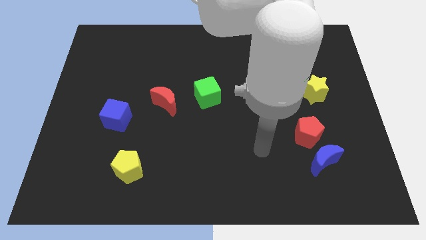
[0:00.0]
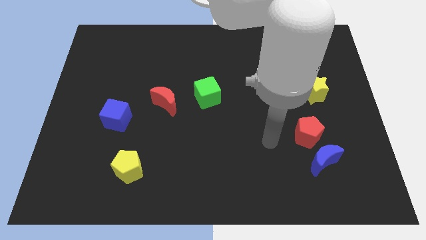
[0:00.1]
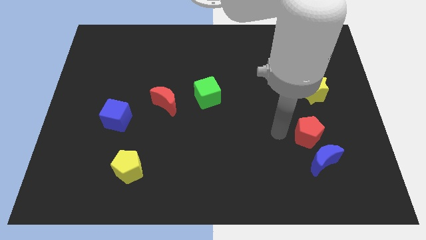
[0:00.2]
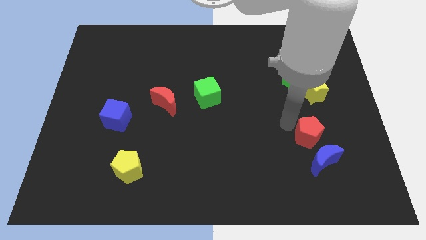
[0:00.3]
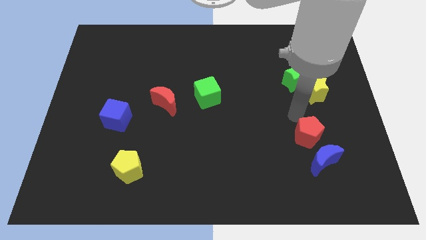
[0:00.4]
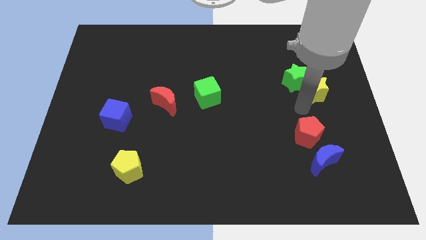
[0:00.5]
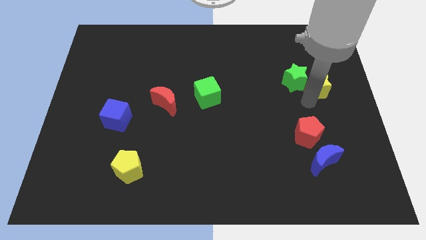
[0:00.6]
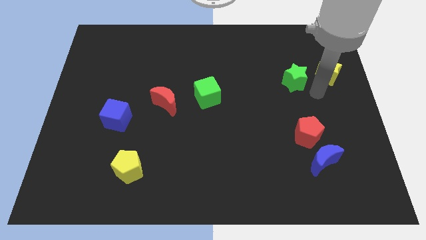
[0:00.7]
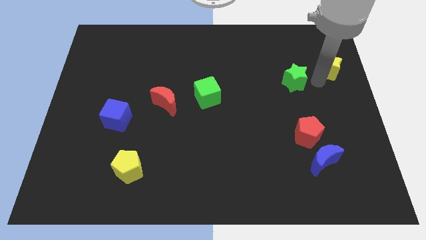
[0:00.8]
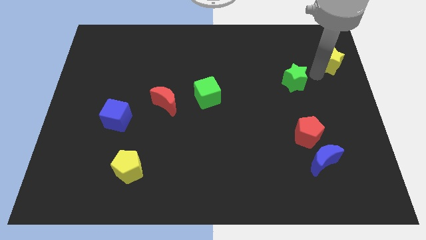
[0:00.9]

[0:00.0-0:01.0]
pull the green star apart from the yellow star

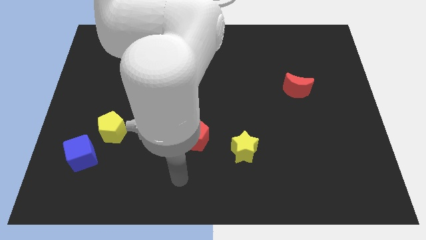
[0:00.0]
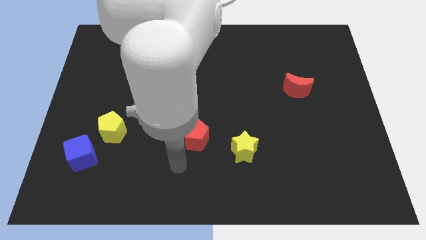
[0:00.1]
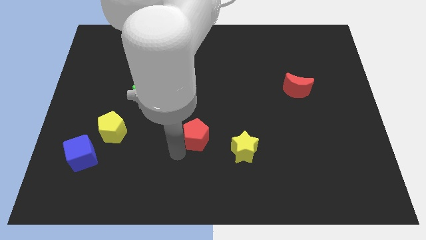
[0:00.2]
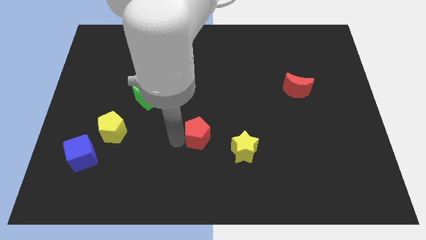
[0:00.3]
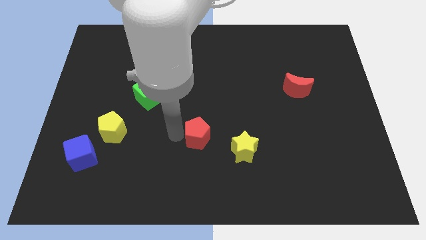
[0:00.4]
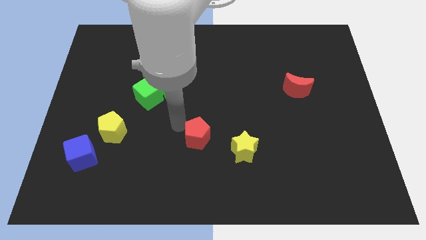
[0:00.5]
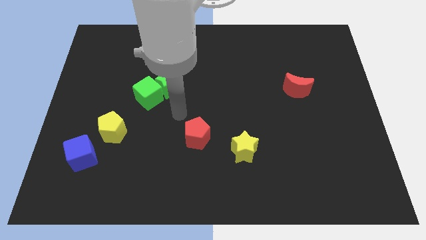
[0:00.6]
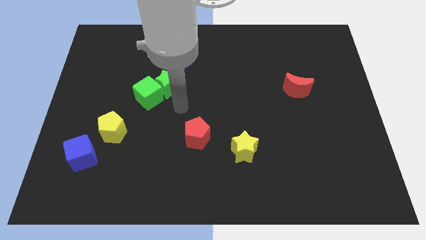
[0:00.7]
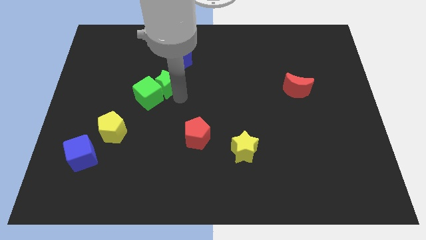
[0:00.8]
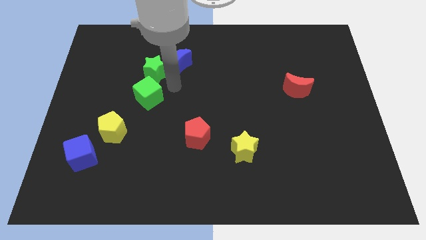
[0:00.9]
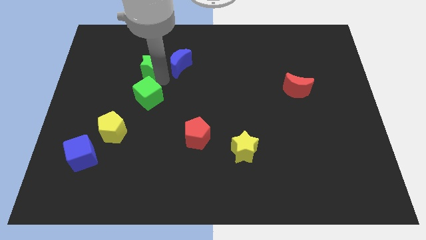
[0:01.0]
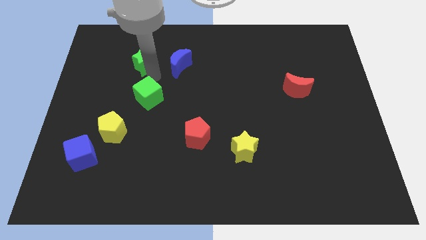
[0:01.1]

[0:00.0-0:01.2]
pull the green cube apart from the green star

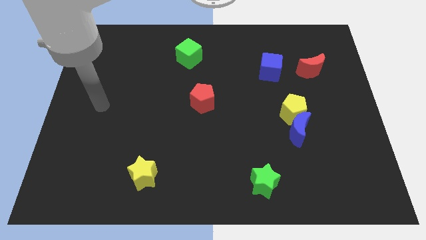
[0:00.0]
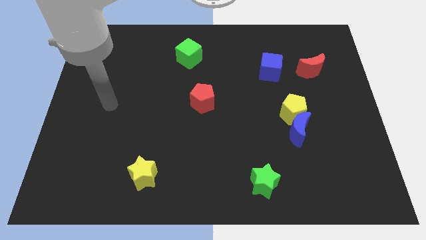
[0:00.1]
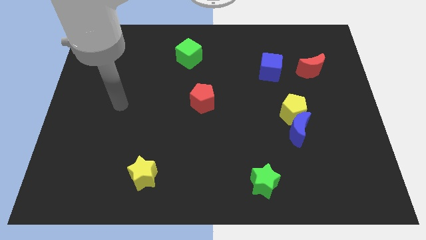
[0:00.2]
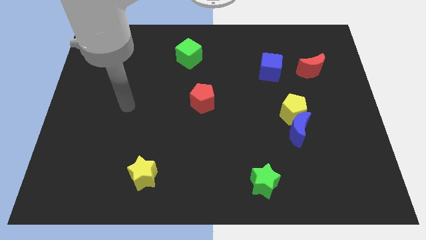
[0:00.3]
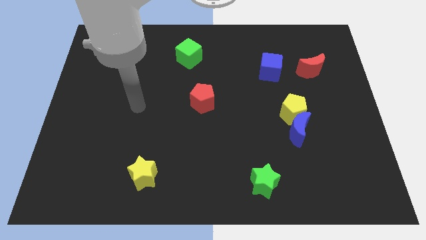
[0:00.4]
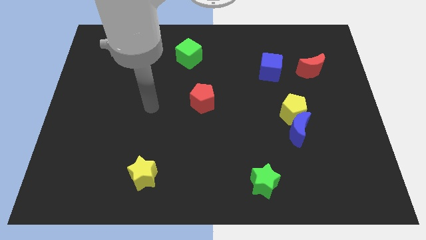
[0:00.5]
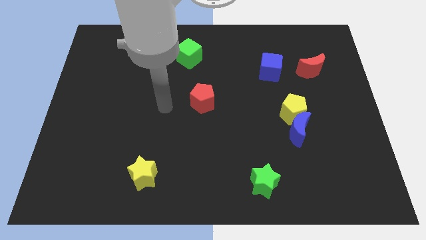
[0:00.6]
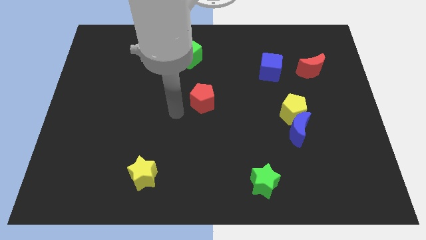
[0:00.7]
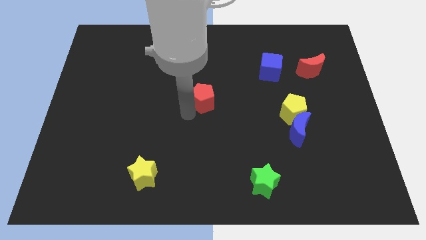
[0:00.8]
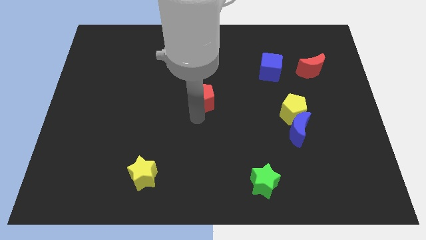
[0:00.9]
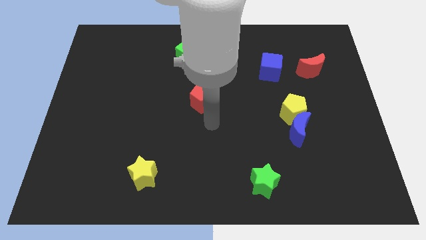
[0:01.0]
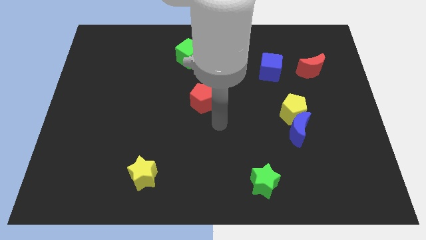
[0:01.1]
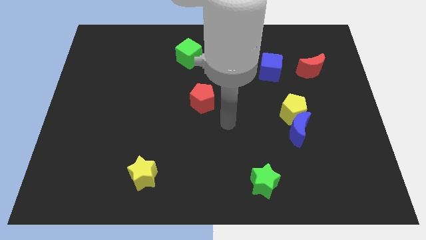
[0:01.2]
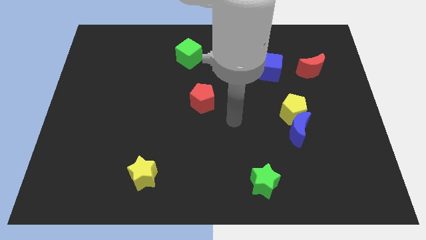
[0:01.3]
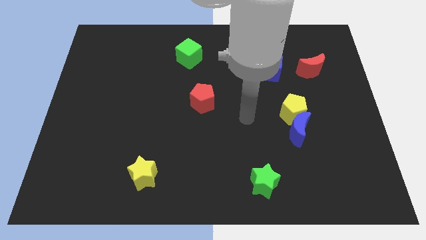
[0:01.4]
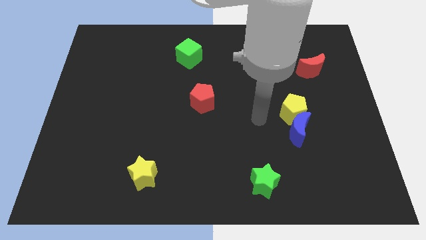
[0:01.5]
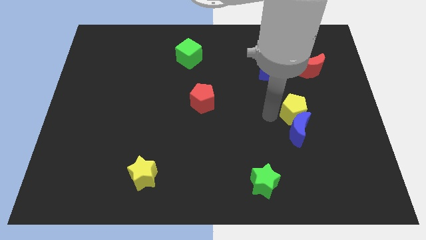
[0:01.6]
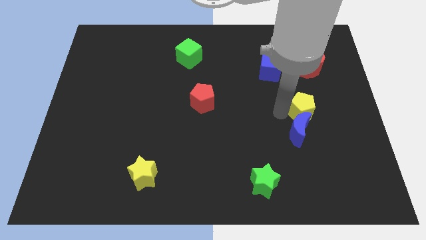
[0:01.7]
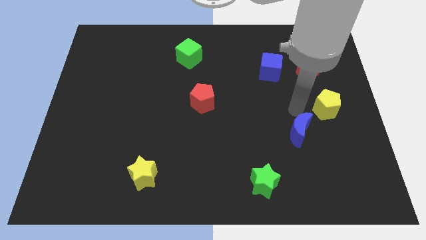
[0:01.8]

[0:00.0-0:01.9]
separate the blue moon from the yellow pentagon

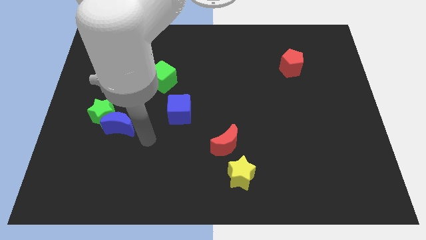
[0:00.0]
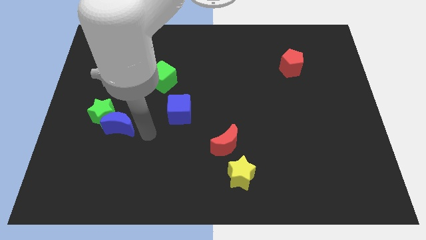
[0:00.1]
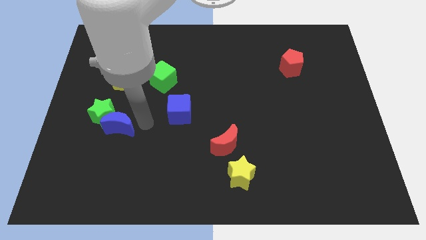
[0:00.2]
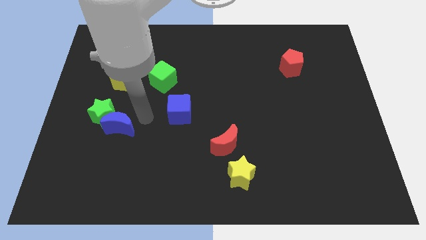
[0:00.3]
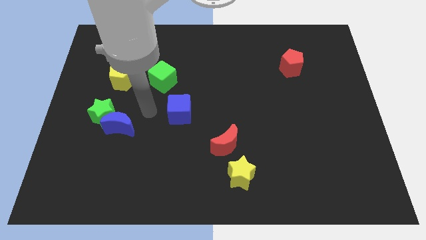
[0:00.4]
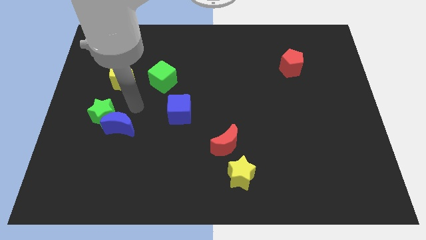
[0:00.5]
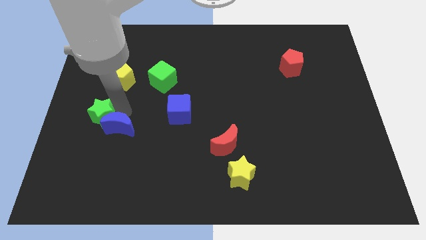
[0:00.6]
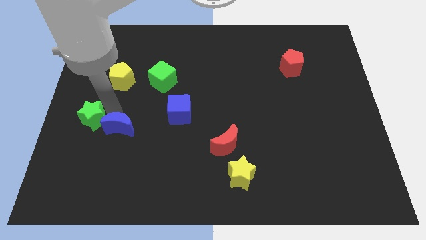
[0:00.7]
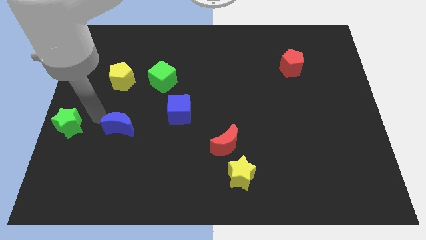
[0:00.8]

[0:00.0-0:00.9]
separate the blue moon from the green star

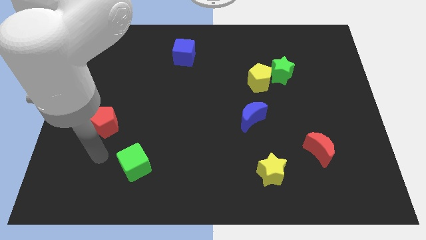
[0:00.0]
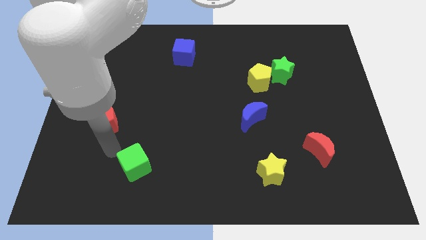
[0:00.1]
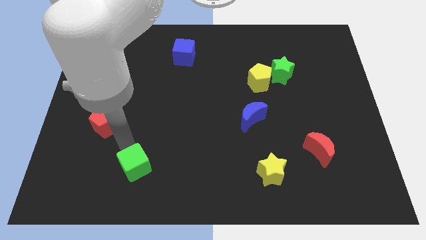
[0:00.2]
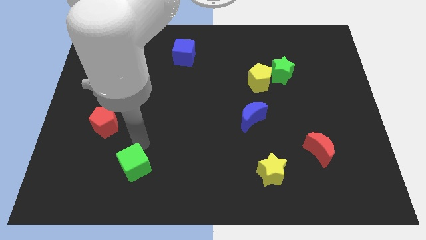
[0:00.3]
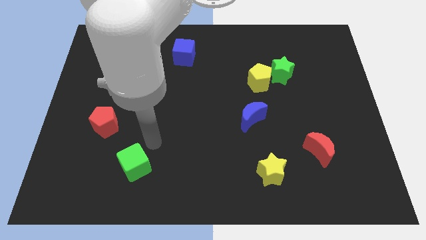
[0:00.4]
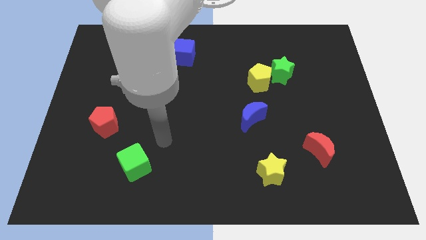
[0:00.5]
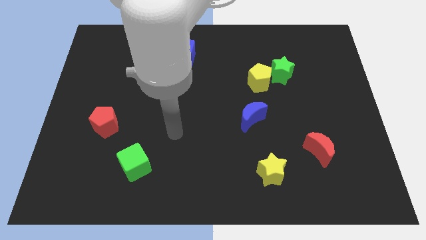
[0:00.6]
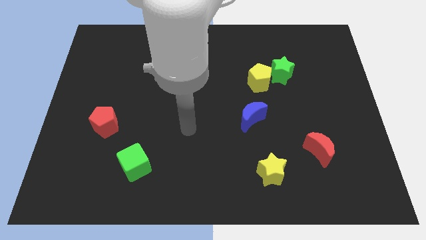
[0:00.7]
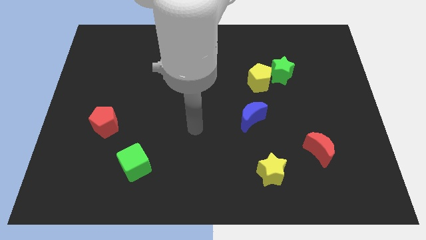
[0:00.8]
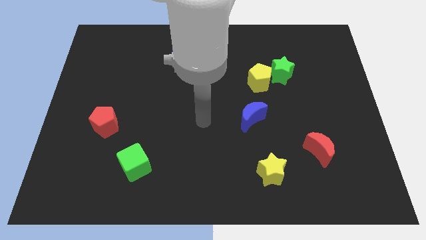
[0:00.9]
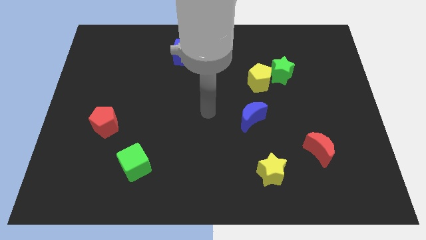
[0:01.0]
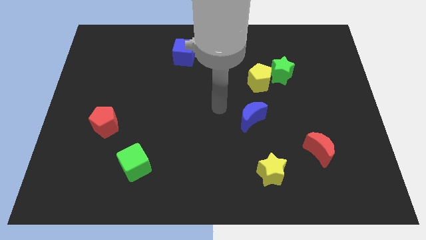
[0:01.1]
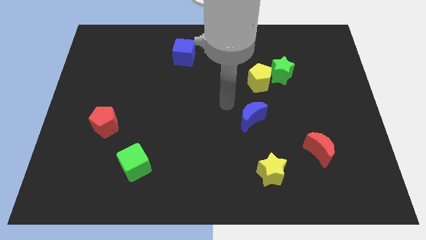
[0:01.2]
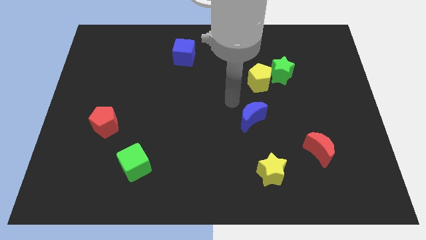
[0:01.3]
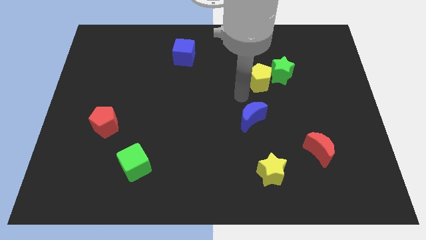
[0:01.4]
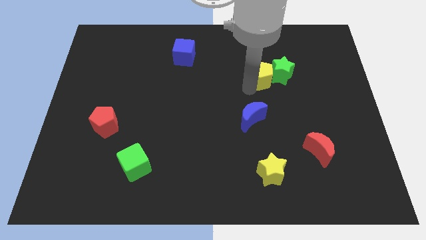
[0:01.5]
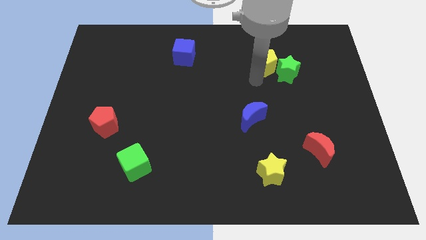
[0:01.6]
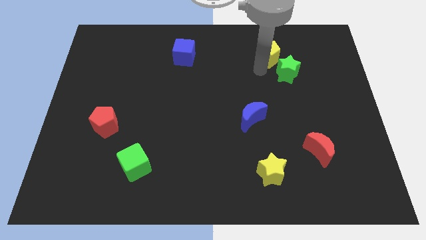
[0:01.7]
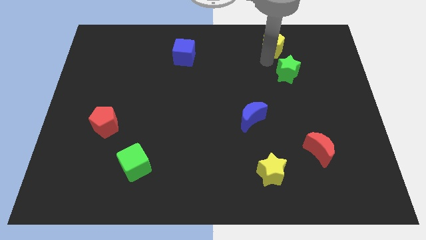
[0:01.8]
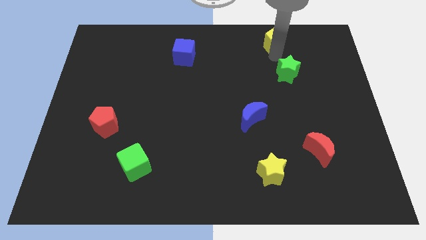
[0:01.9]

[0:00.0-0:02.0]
move the green star away from the yellow pentagon

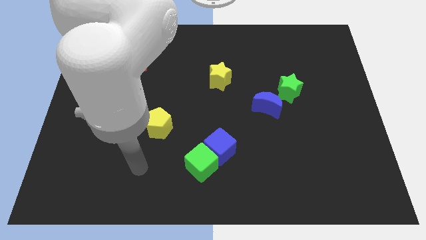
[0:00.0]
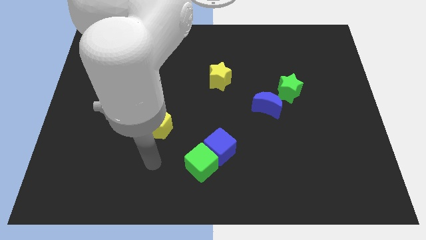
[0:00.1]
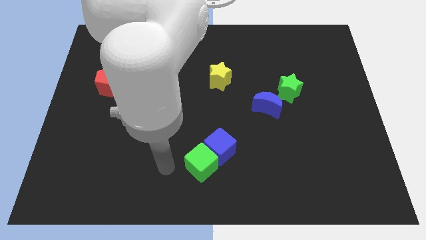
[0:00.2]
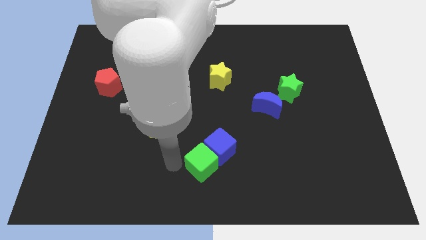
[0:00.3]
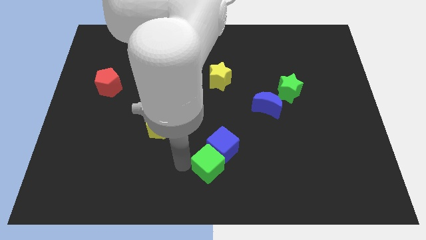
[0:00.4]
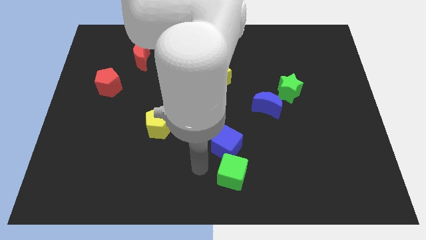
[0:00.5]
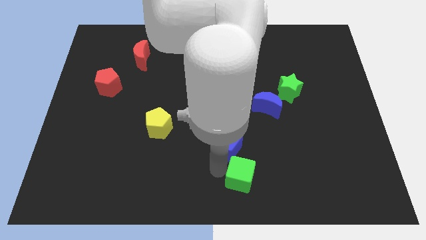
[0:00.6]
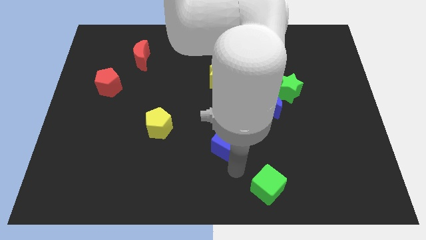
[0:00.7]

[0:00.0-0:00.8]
pull the blue cube apart from the green cube

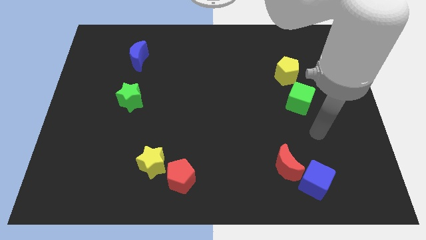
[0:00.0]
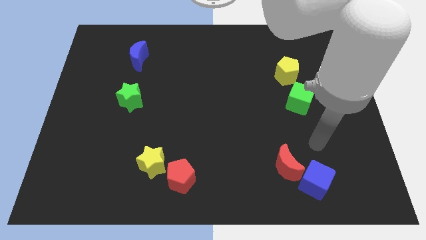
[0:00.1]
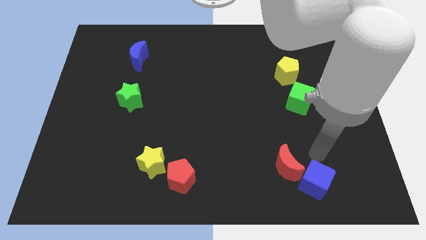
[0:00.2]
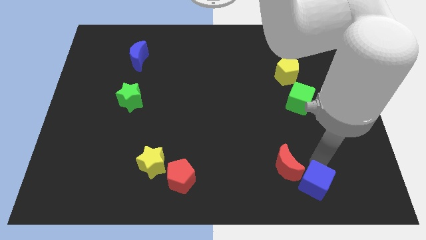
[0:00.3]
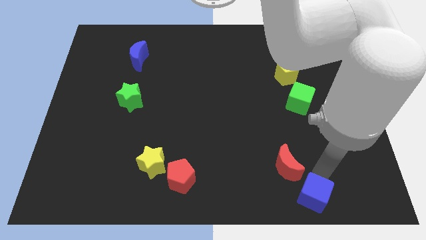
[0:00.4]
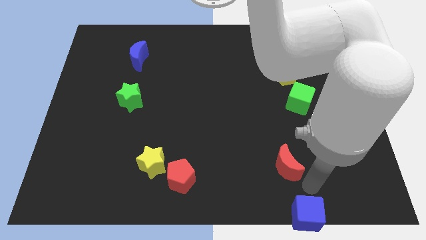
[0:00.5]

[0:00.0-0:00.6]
pull the red moon apart from the blue cube

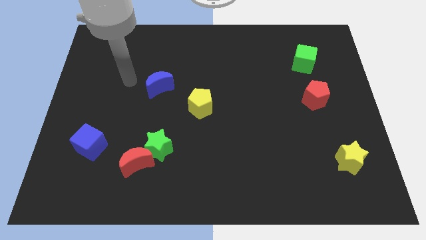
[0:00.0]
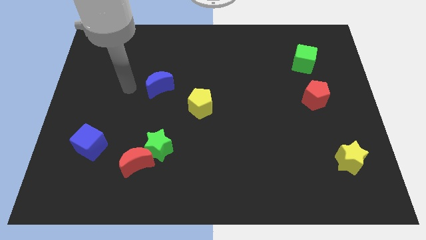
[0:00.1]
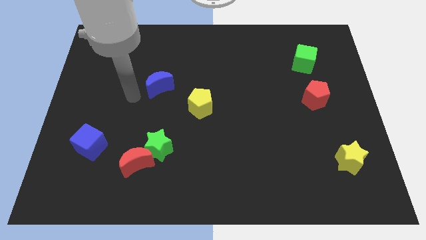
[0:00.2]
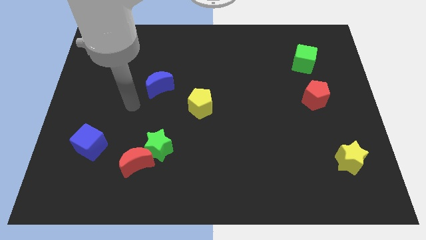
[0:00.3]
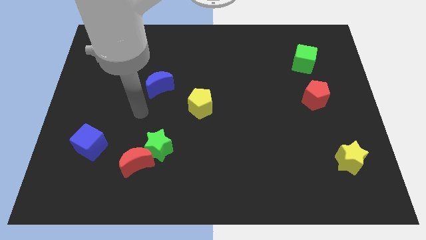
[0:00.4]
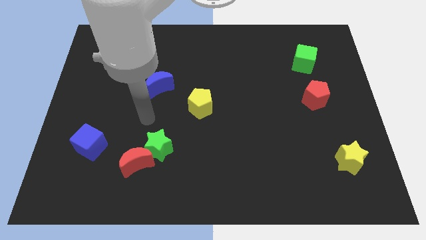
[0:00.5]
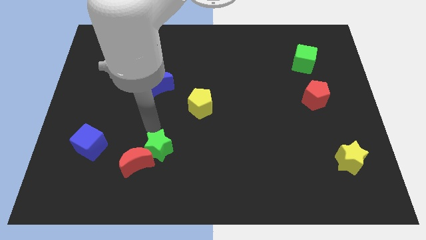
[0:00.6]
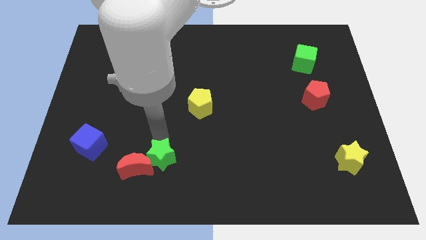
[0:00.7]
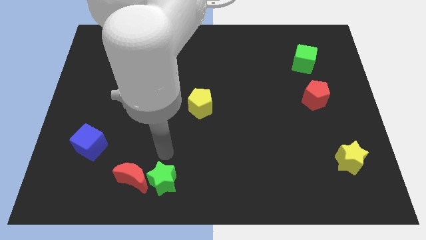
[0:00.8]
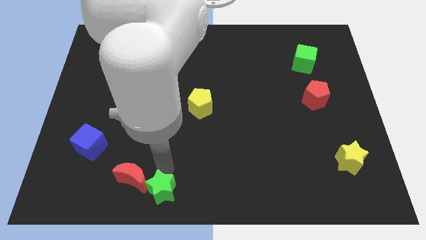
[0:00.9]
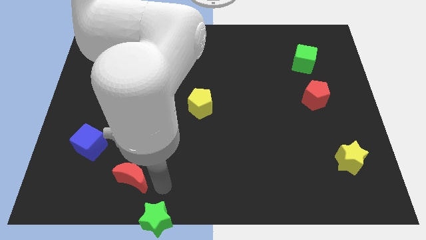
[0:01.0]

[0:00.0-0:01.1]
pull the red moon apart from the green star
